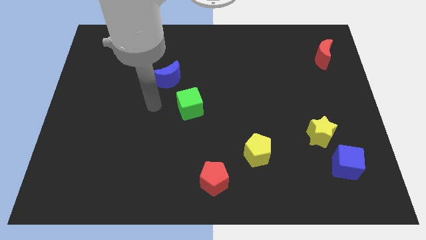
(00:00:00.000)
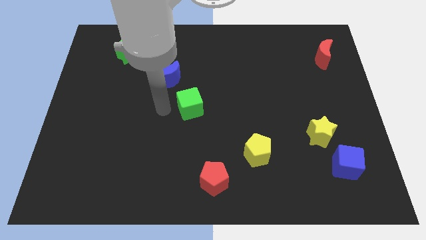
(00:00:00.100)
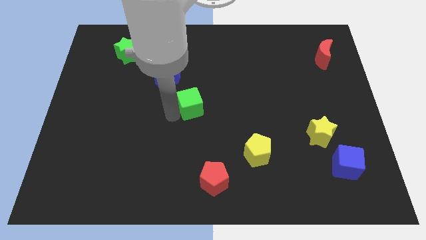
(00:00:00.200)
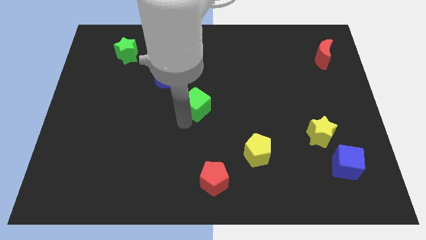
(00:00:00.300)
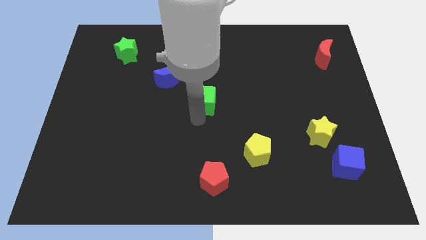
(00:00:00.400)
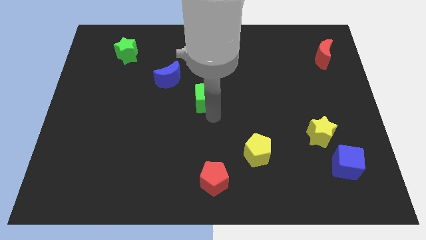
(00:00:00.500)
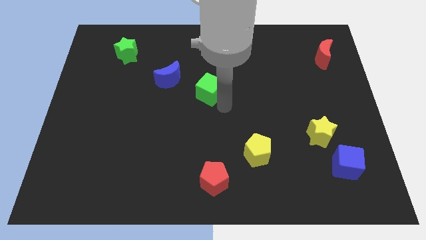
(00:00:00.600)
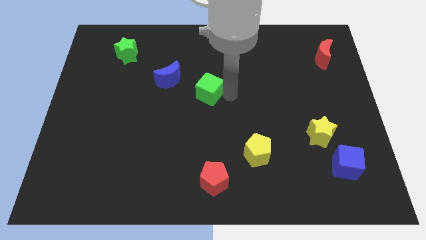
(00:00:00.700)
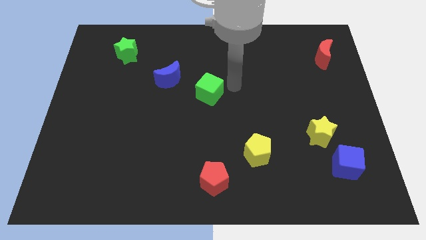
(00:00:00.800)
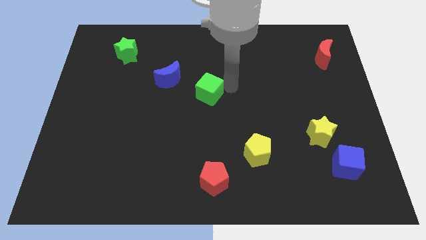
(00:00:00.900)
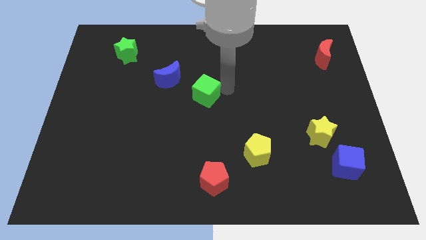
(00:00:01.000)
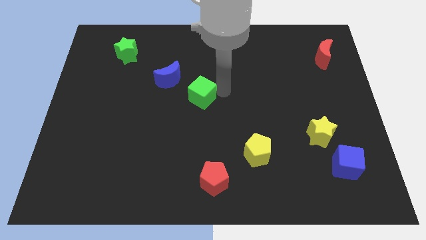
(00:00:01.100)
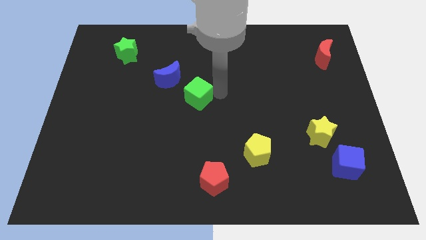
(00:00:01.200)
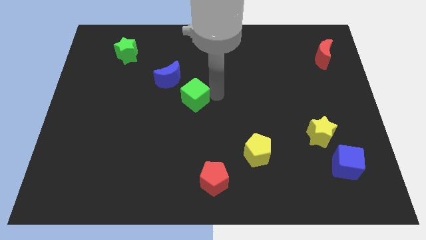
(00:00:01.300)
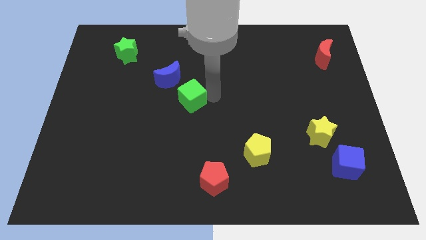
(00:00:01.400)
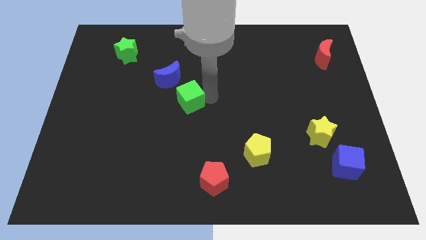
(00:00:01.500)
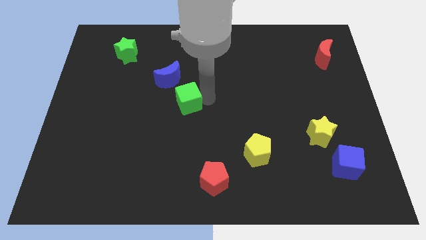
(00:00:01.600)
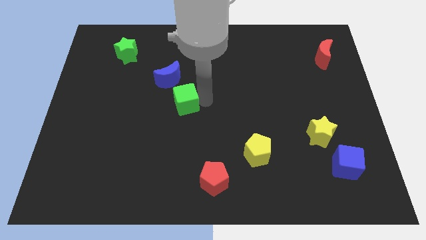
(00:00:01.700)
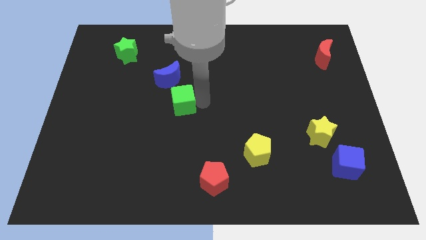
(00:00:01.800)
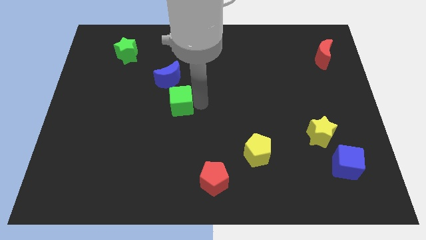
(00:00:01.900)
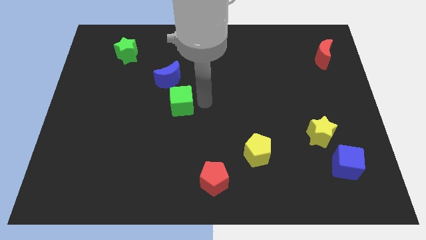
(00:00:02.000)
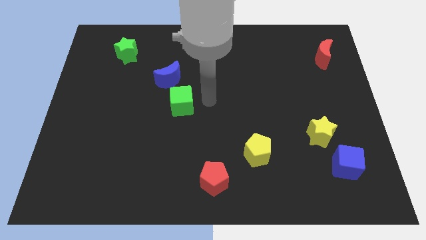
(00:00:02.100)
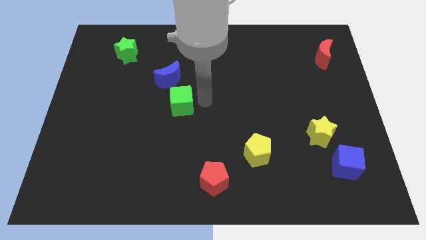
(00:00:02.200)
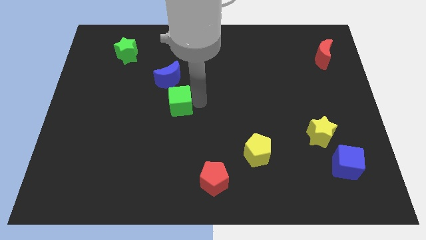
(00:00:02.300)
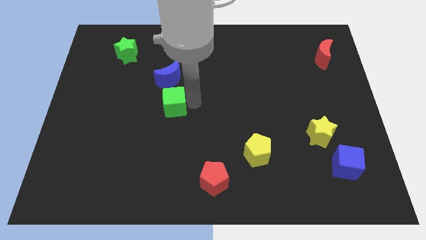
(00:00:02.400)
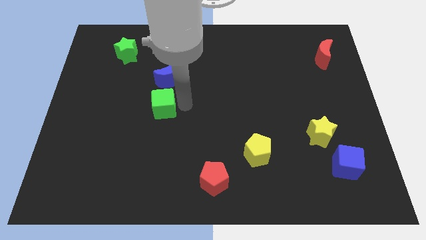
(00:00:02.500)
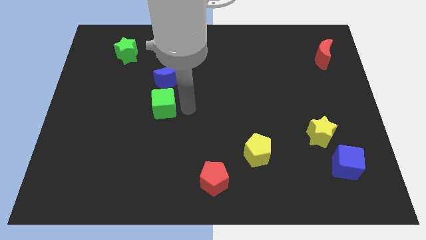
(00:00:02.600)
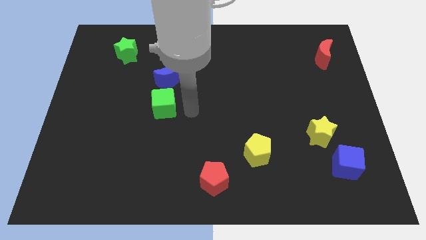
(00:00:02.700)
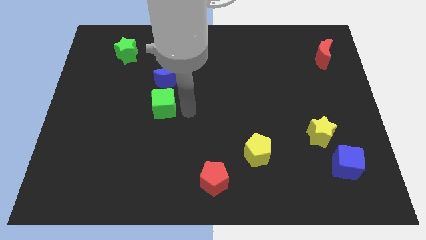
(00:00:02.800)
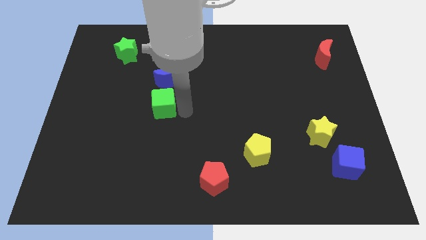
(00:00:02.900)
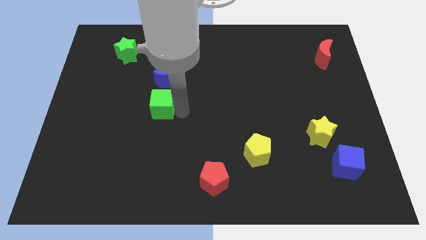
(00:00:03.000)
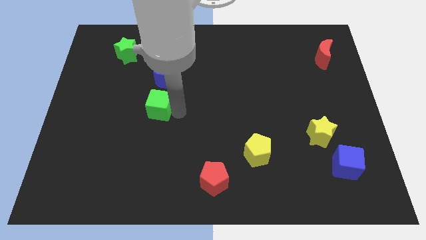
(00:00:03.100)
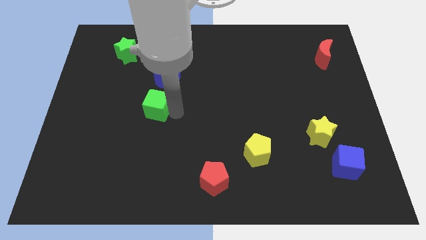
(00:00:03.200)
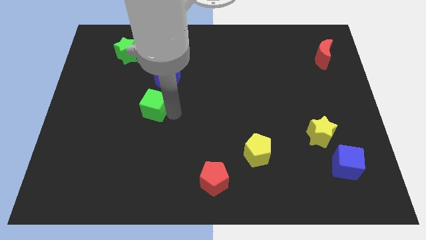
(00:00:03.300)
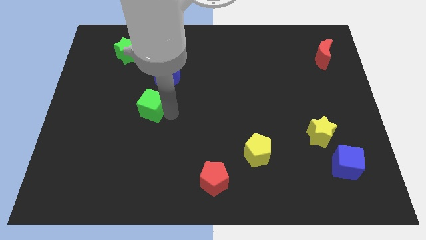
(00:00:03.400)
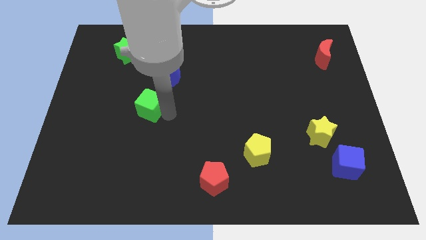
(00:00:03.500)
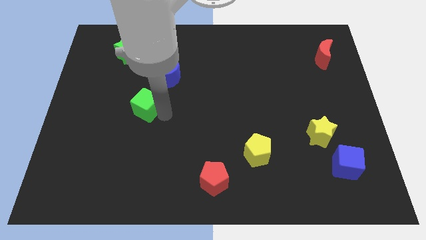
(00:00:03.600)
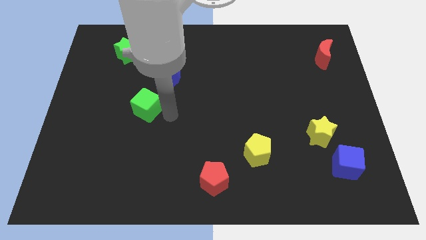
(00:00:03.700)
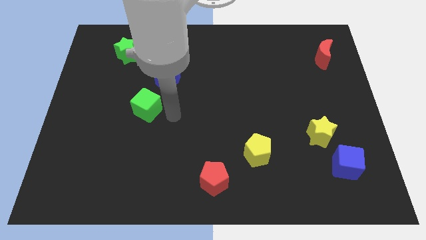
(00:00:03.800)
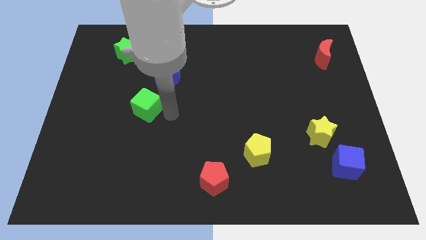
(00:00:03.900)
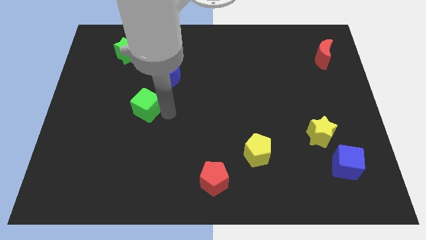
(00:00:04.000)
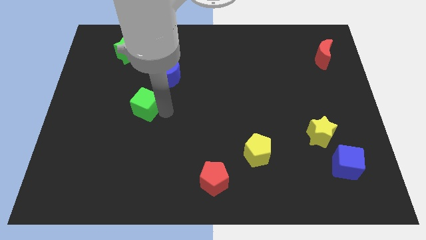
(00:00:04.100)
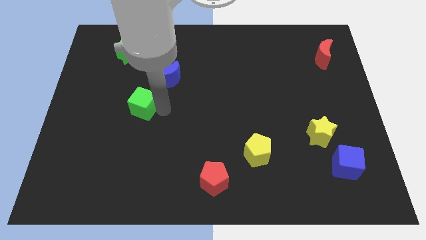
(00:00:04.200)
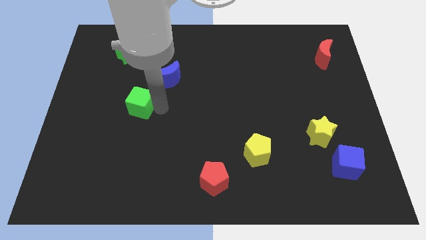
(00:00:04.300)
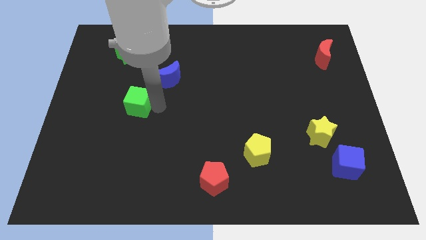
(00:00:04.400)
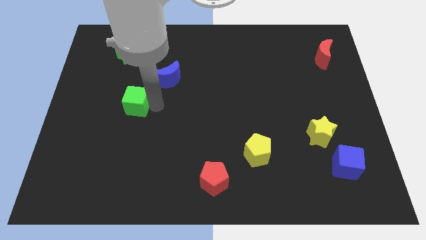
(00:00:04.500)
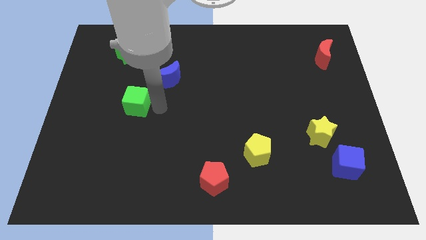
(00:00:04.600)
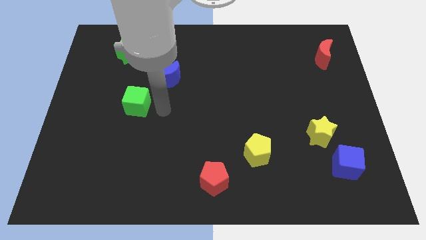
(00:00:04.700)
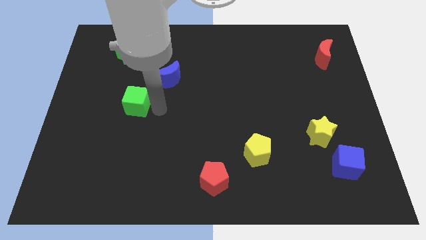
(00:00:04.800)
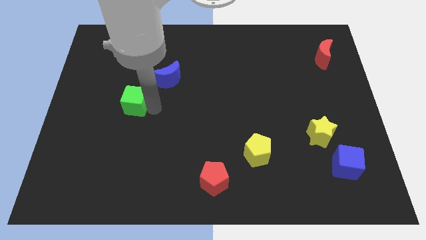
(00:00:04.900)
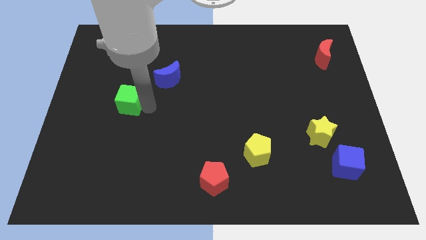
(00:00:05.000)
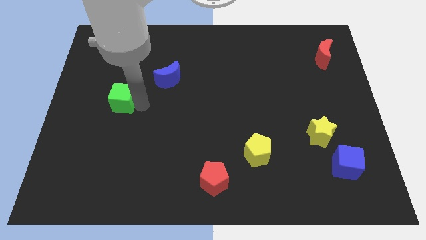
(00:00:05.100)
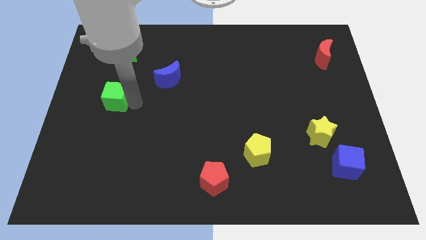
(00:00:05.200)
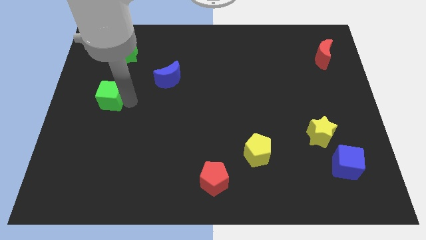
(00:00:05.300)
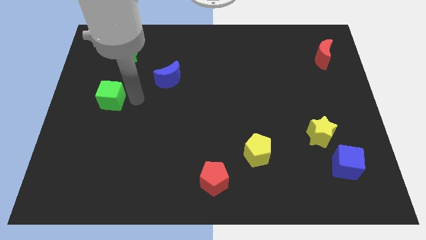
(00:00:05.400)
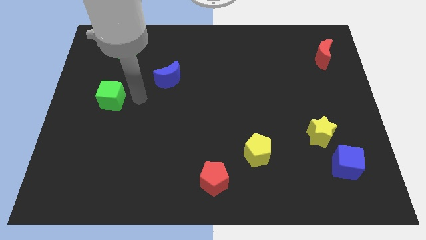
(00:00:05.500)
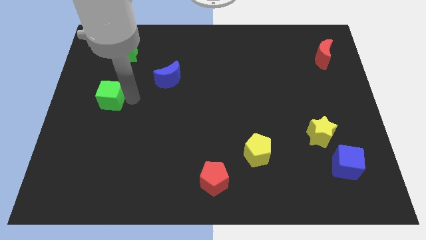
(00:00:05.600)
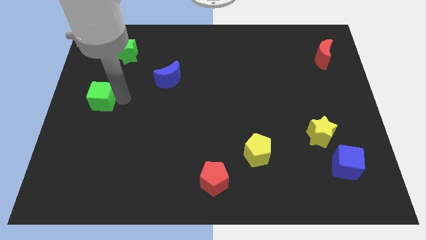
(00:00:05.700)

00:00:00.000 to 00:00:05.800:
push the green cube to the left side of the board
